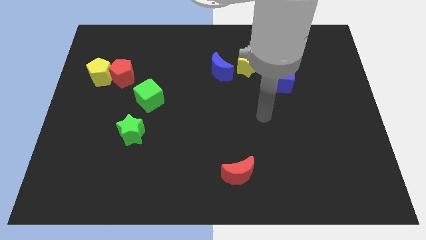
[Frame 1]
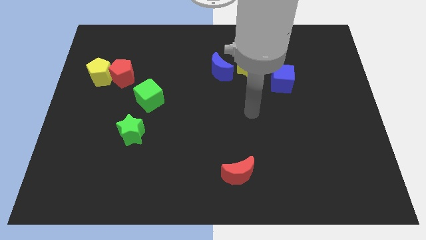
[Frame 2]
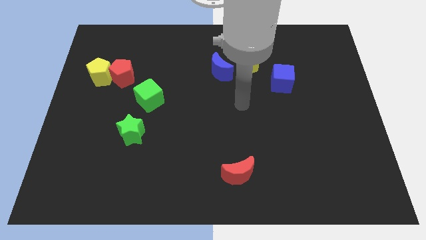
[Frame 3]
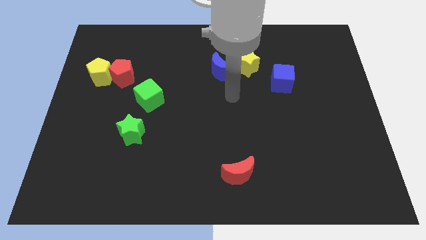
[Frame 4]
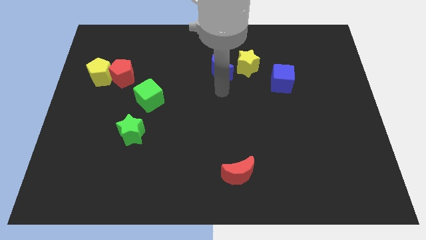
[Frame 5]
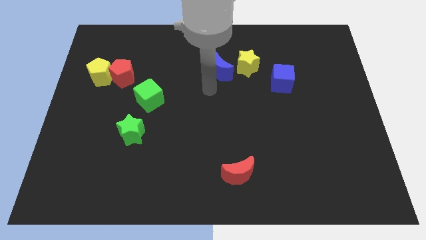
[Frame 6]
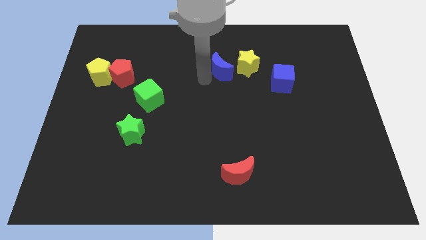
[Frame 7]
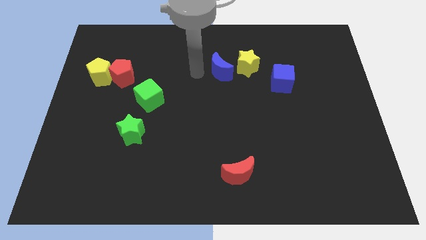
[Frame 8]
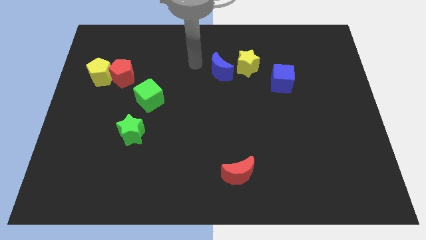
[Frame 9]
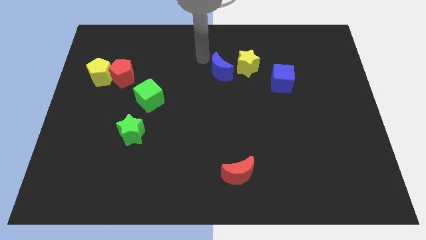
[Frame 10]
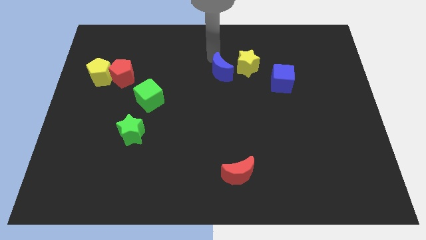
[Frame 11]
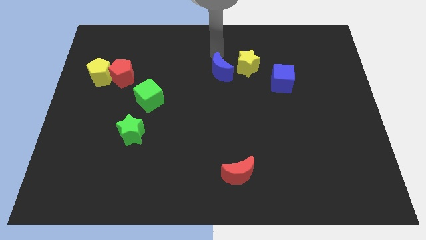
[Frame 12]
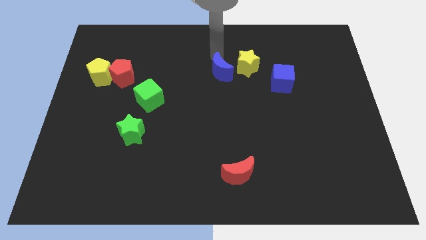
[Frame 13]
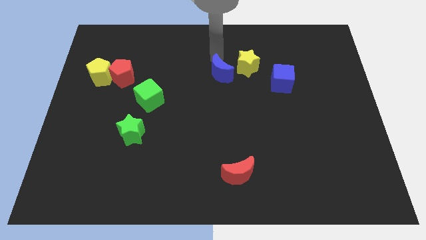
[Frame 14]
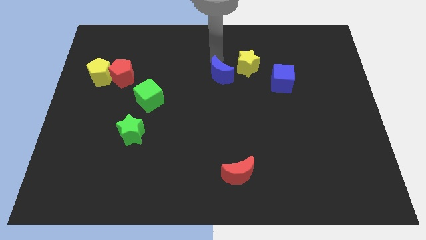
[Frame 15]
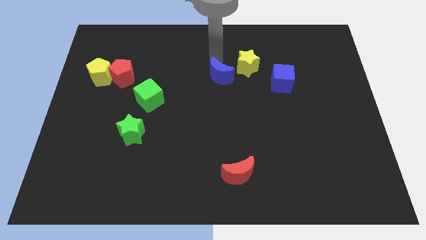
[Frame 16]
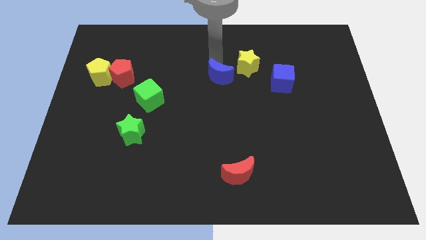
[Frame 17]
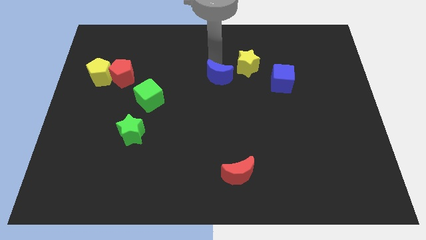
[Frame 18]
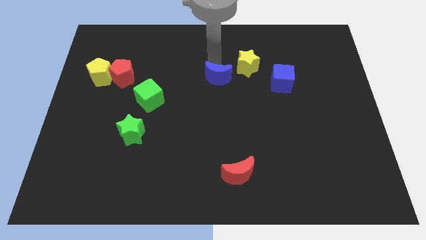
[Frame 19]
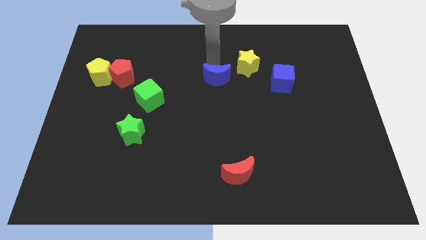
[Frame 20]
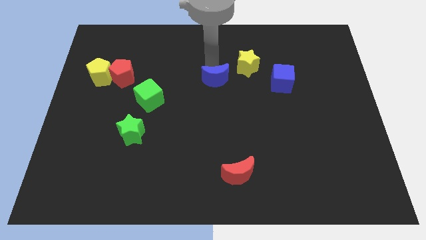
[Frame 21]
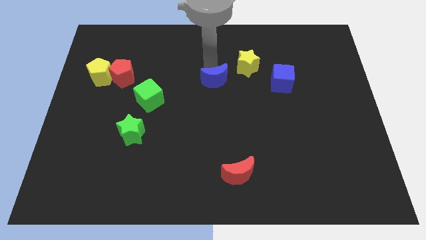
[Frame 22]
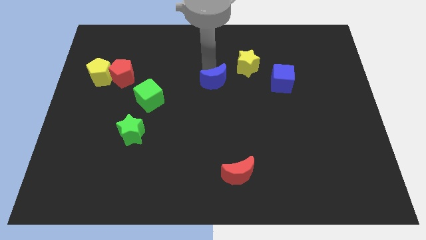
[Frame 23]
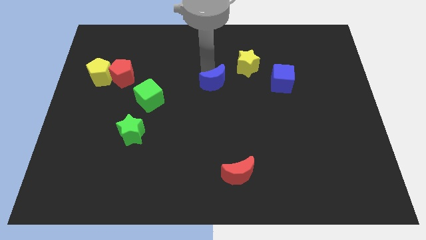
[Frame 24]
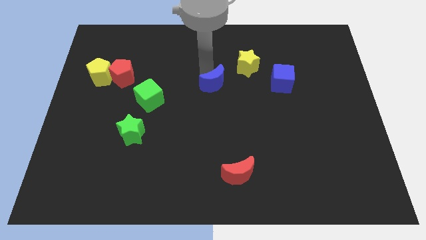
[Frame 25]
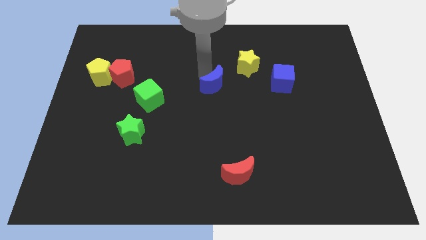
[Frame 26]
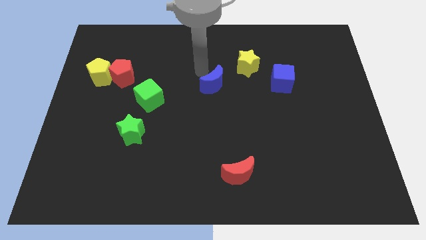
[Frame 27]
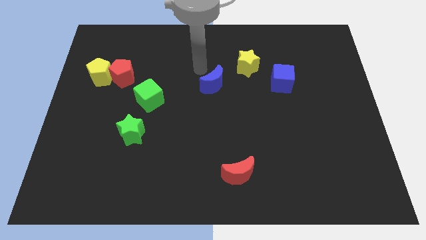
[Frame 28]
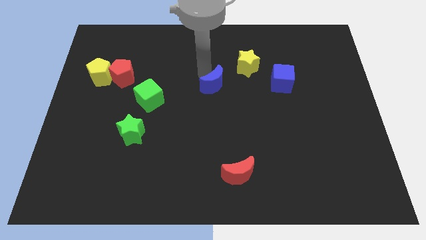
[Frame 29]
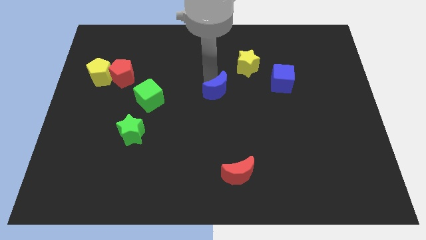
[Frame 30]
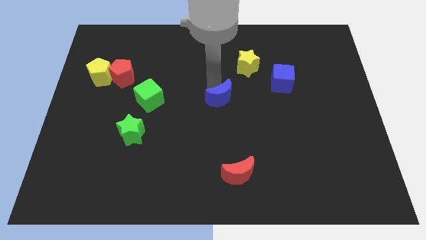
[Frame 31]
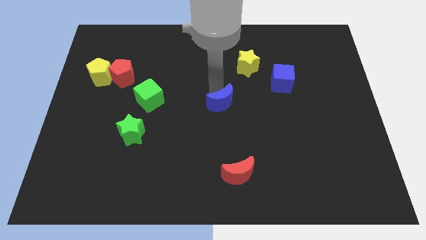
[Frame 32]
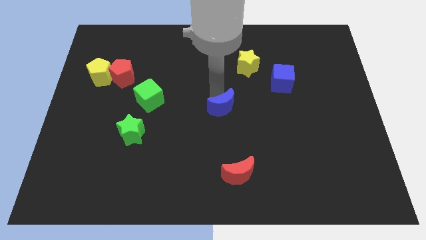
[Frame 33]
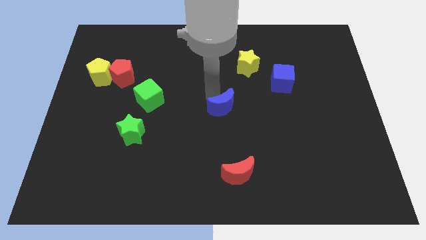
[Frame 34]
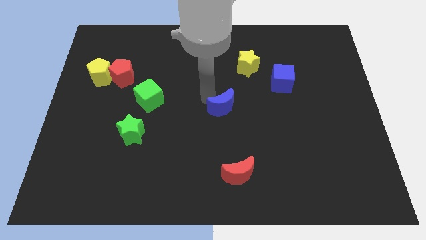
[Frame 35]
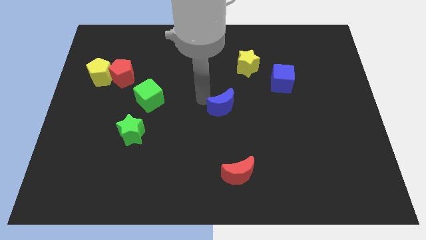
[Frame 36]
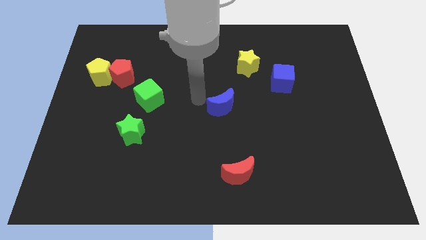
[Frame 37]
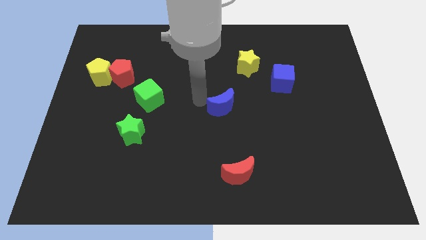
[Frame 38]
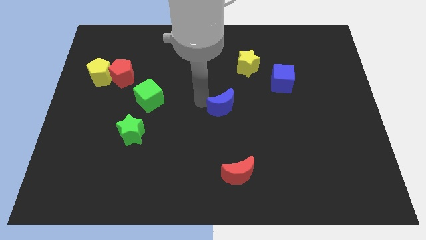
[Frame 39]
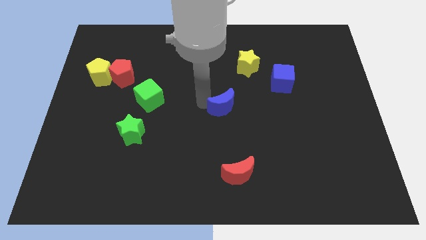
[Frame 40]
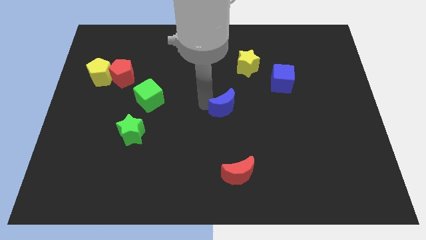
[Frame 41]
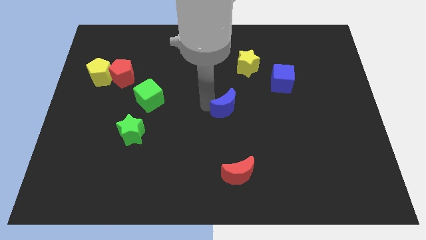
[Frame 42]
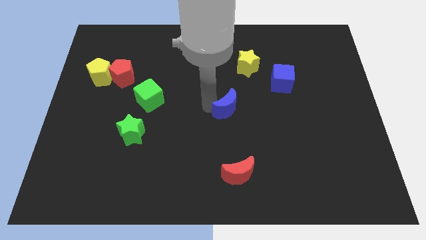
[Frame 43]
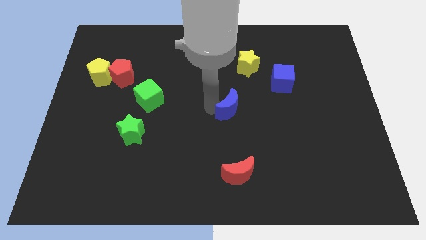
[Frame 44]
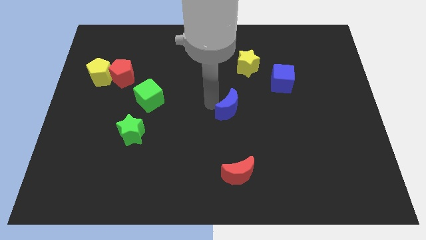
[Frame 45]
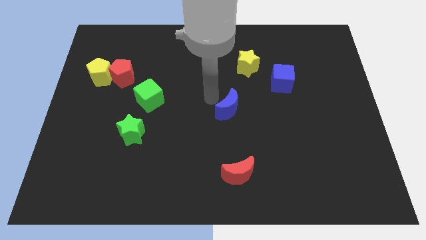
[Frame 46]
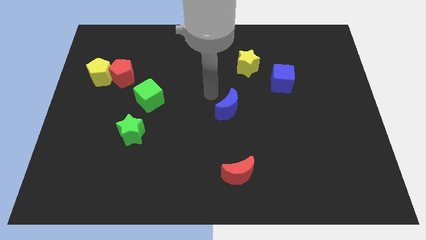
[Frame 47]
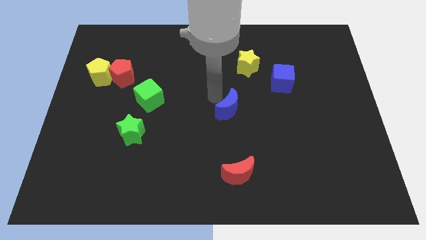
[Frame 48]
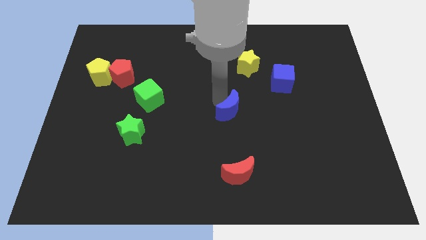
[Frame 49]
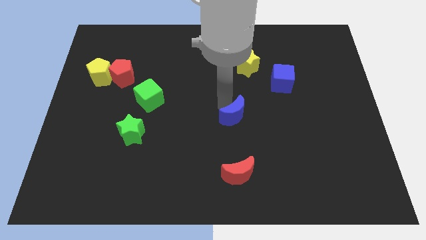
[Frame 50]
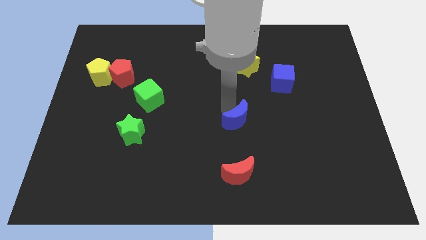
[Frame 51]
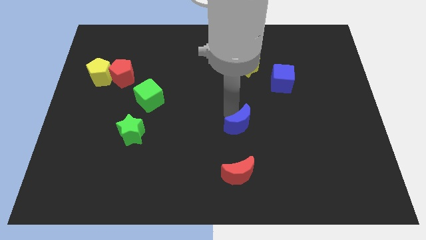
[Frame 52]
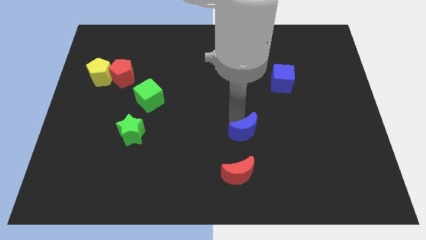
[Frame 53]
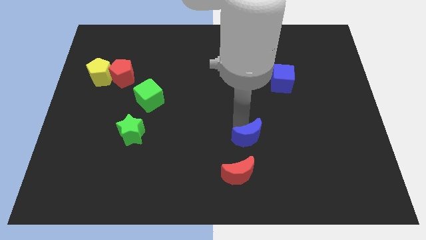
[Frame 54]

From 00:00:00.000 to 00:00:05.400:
slide the blue moon to the top right side of the red moon

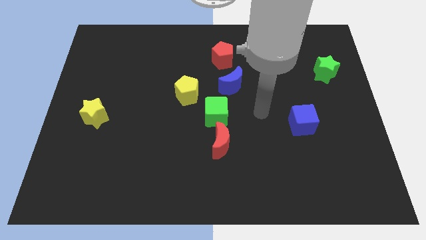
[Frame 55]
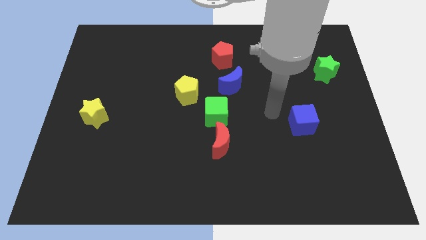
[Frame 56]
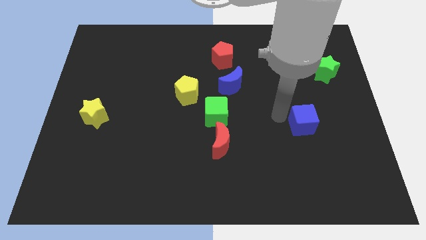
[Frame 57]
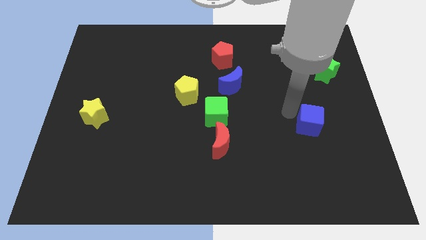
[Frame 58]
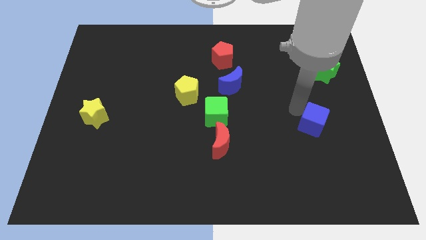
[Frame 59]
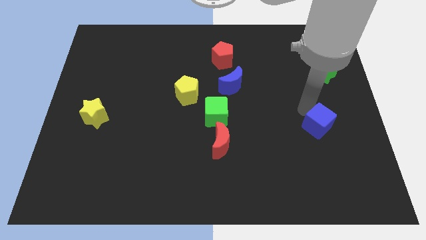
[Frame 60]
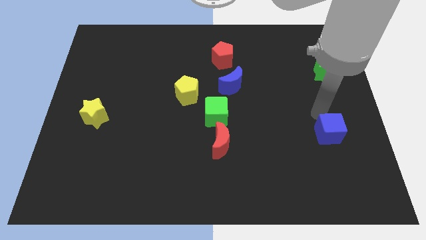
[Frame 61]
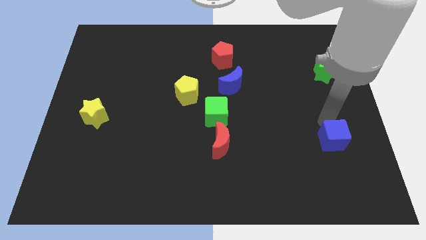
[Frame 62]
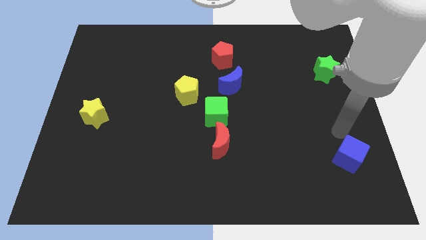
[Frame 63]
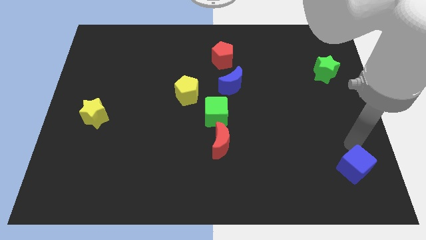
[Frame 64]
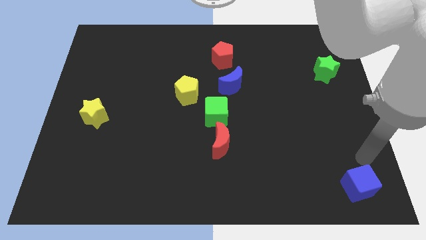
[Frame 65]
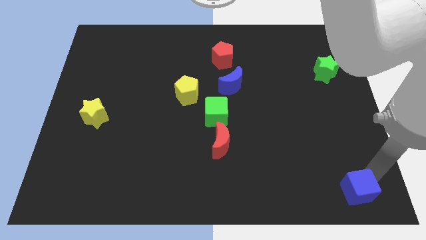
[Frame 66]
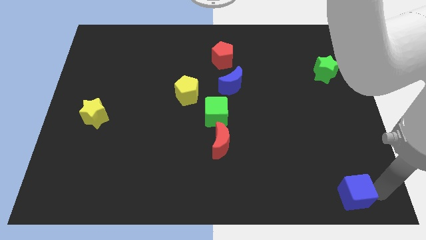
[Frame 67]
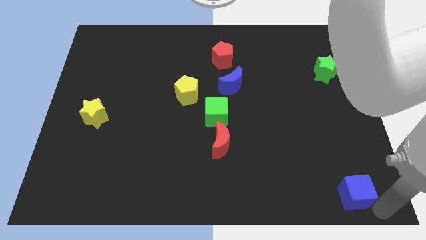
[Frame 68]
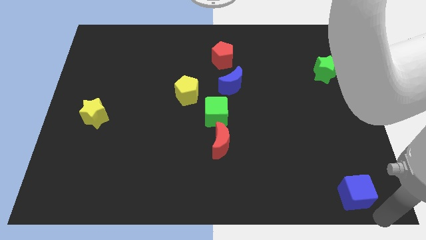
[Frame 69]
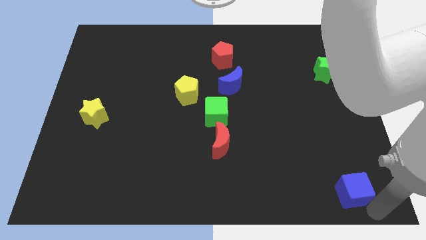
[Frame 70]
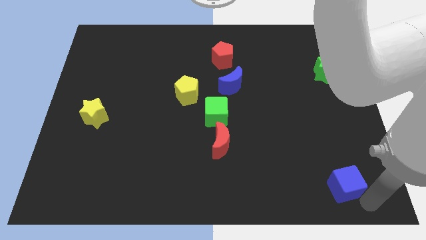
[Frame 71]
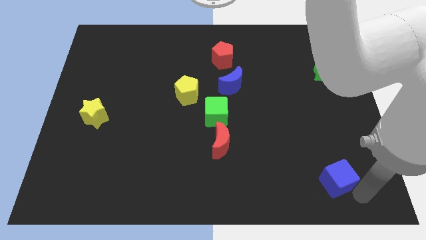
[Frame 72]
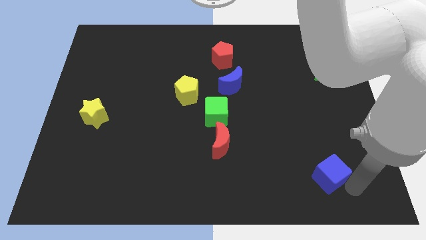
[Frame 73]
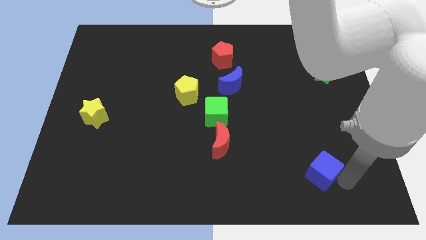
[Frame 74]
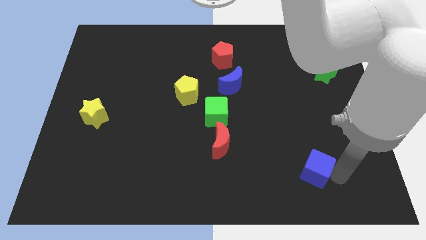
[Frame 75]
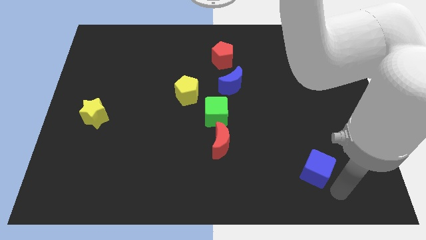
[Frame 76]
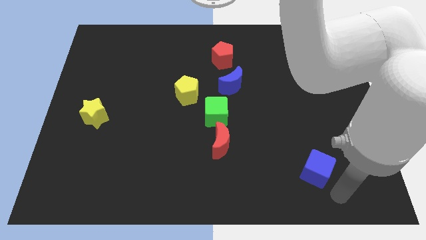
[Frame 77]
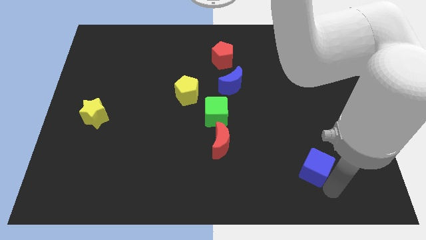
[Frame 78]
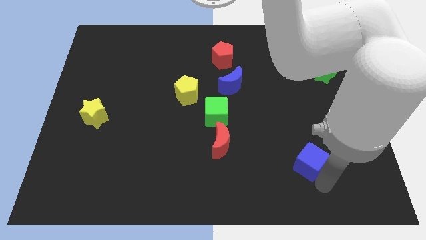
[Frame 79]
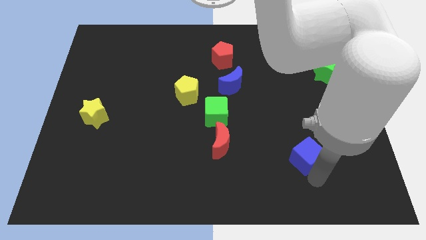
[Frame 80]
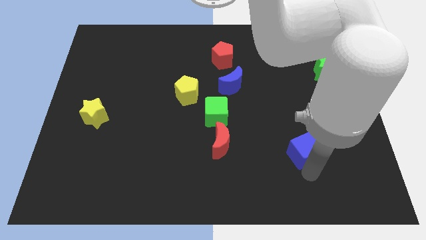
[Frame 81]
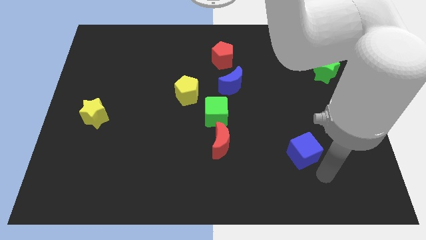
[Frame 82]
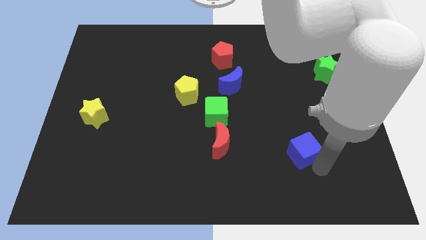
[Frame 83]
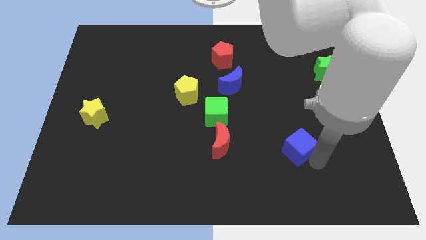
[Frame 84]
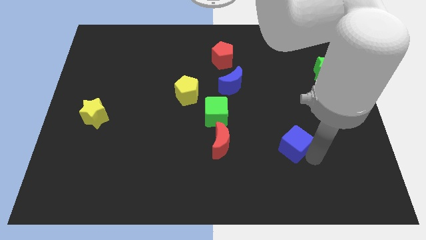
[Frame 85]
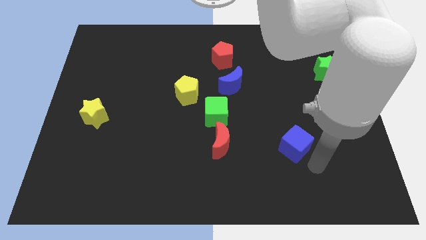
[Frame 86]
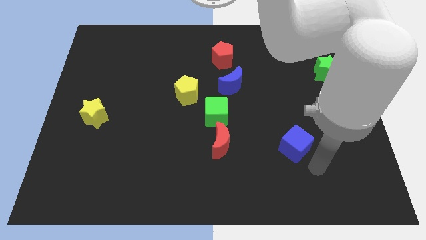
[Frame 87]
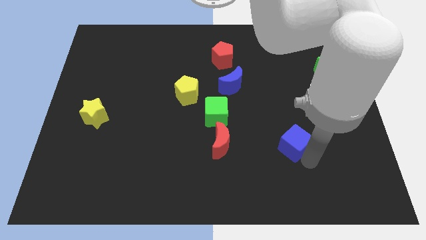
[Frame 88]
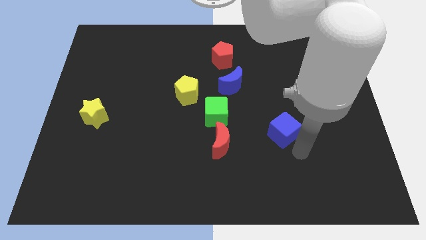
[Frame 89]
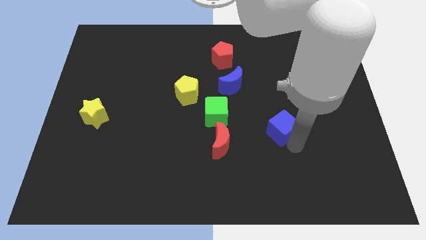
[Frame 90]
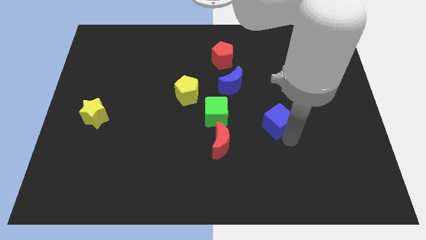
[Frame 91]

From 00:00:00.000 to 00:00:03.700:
slide the blue cube to the right of the green cube
